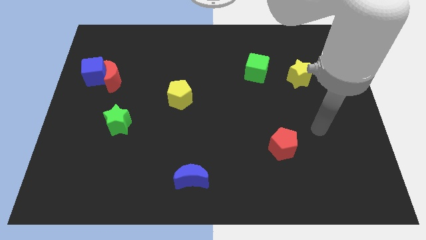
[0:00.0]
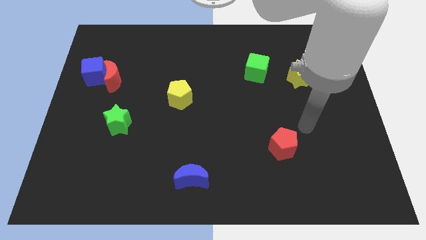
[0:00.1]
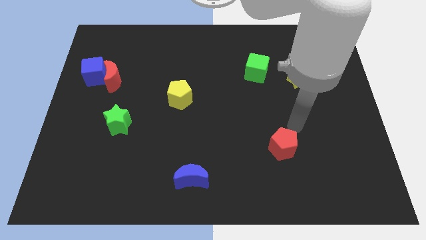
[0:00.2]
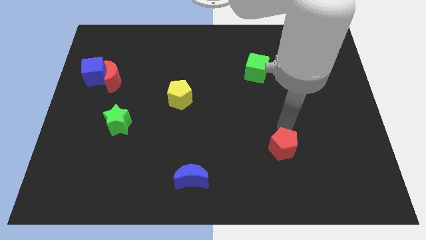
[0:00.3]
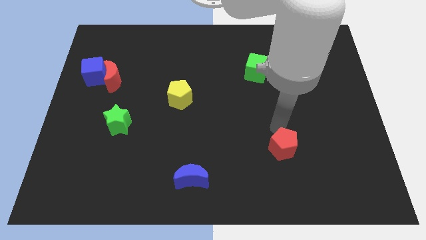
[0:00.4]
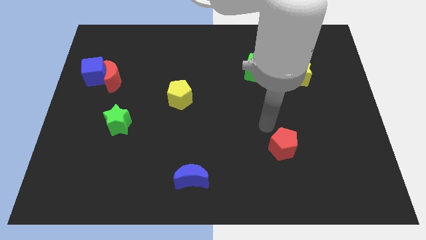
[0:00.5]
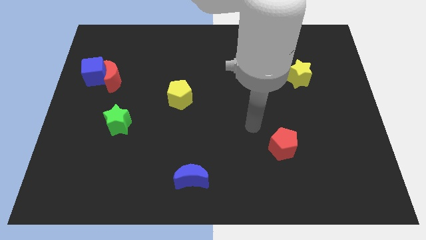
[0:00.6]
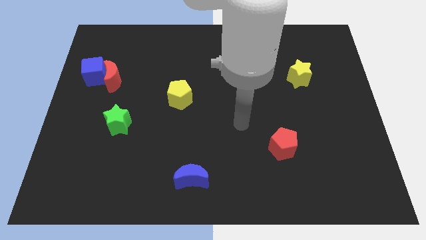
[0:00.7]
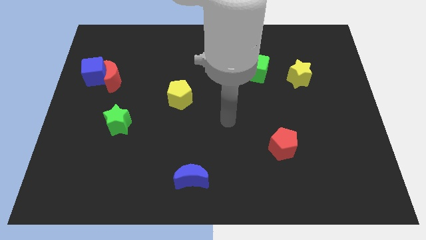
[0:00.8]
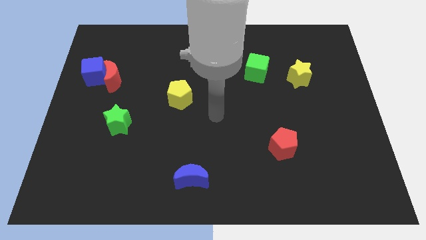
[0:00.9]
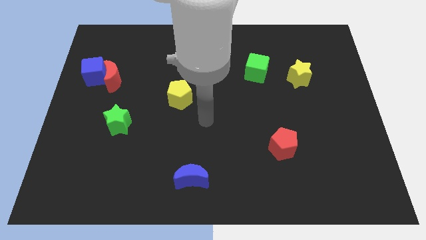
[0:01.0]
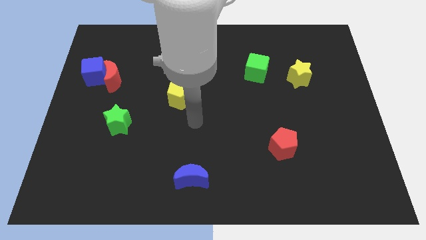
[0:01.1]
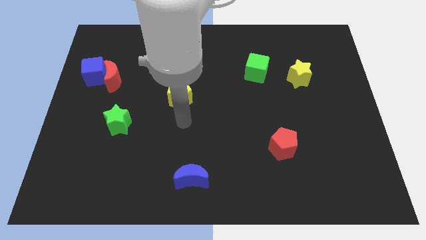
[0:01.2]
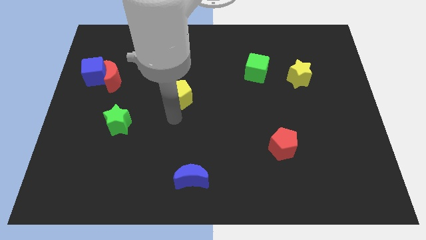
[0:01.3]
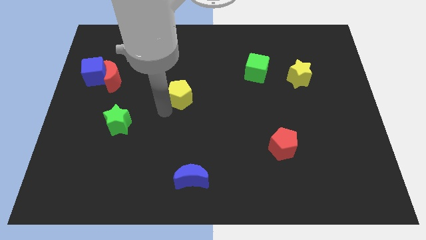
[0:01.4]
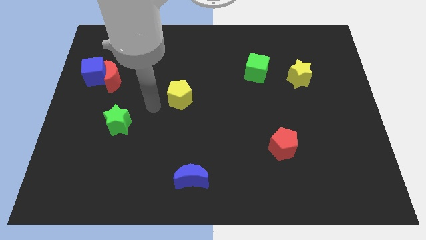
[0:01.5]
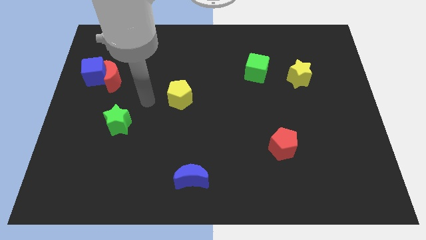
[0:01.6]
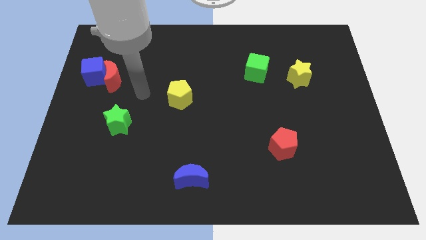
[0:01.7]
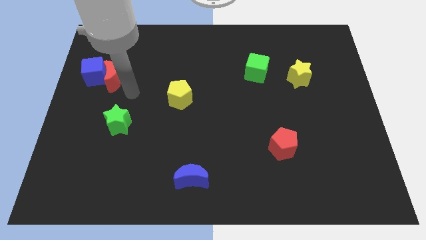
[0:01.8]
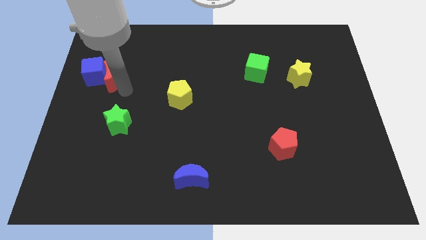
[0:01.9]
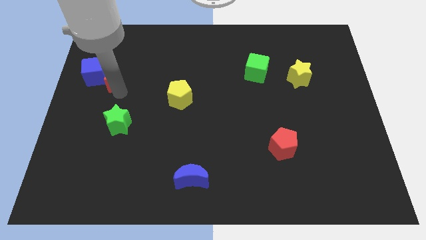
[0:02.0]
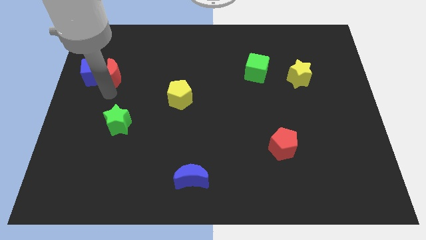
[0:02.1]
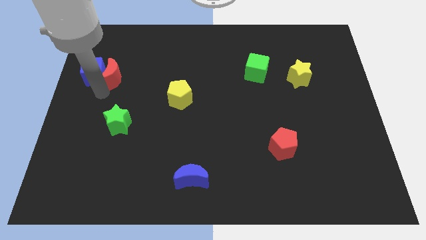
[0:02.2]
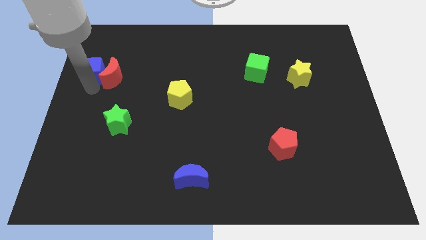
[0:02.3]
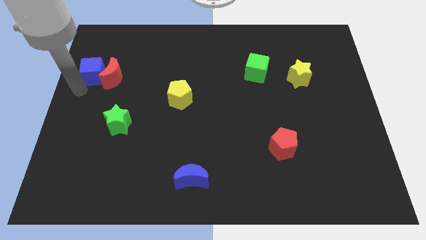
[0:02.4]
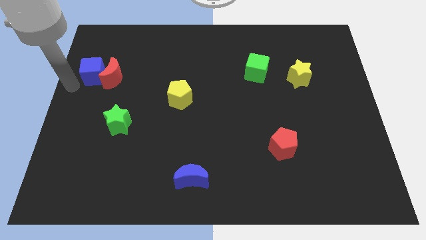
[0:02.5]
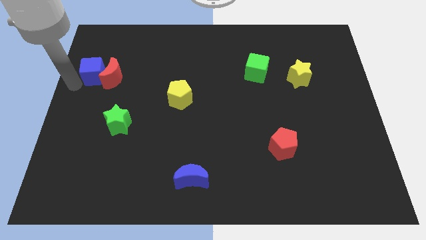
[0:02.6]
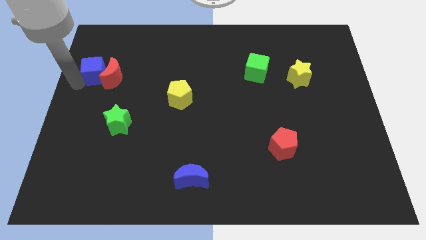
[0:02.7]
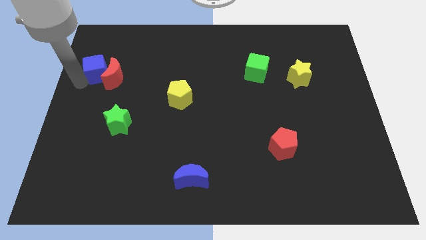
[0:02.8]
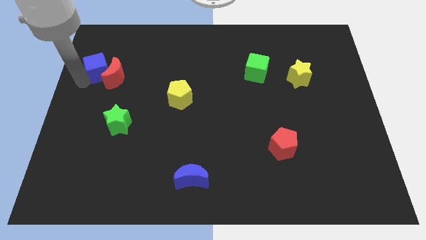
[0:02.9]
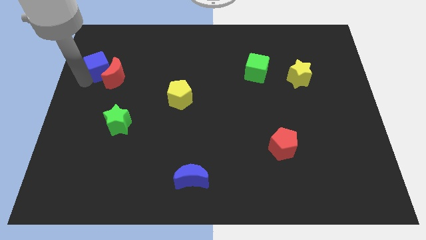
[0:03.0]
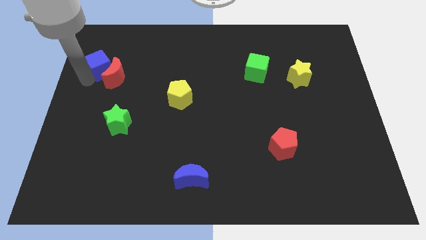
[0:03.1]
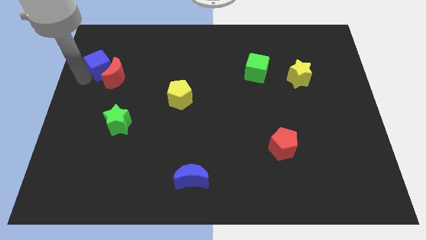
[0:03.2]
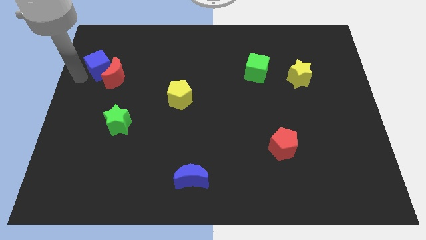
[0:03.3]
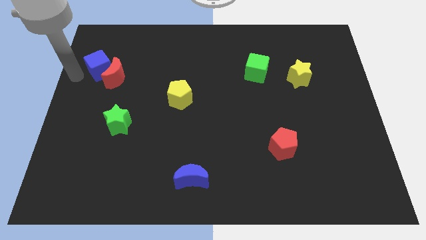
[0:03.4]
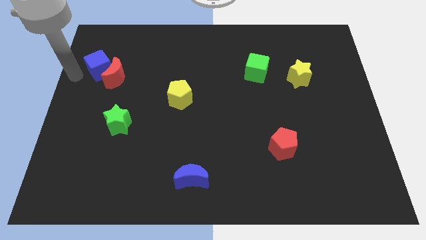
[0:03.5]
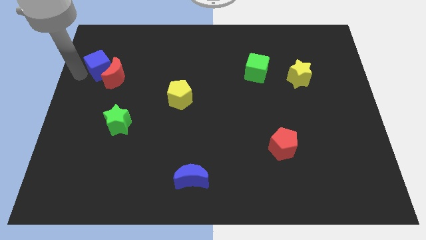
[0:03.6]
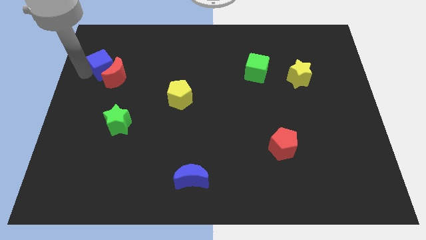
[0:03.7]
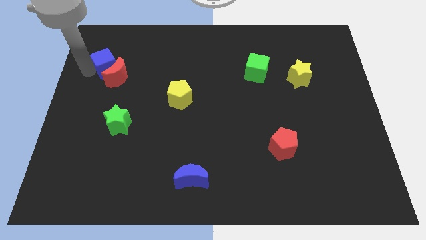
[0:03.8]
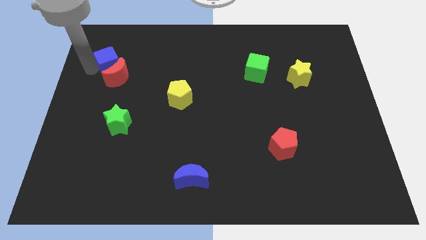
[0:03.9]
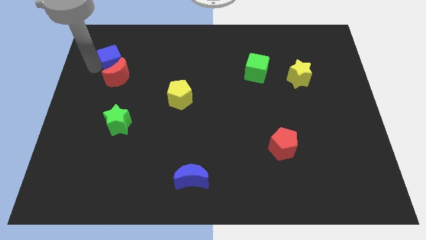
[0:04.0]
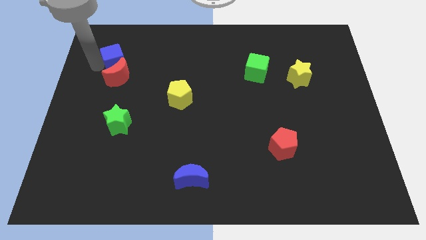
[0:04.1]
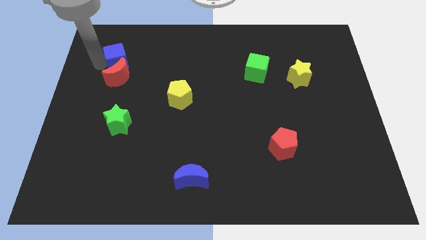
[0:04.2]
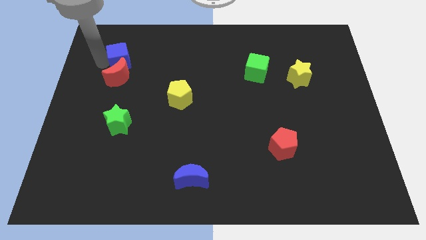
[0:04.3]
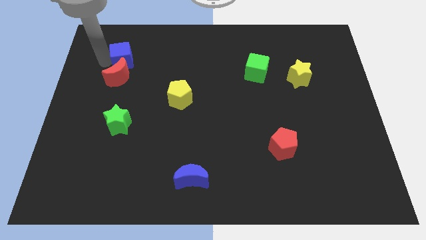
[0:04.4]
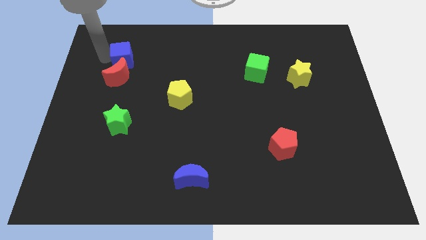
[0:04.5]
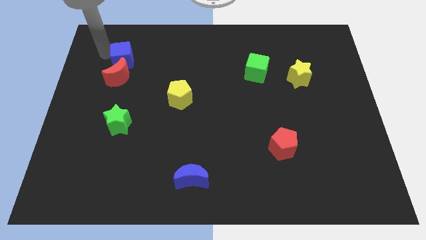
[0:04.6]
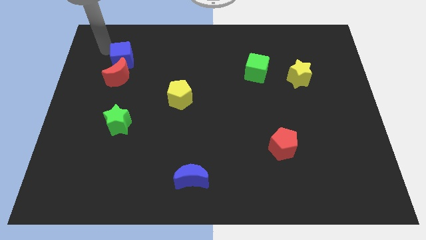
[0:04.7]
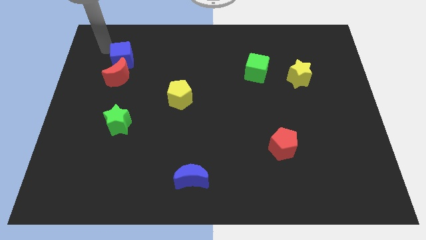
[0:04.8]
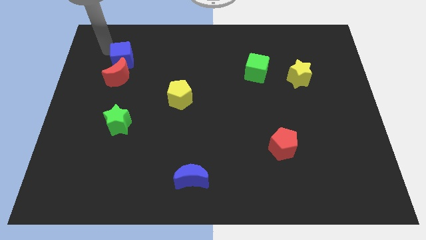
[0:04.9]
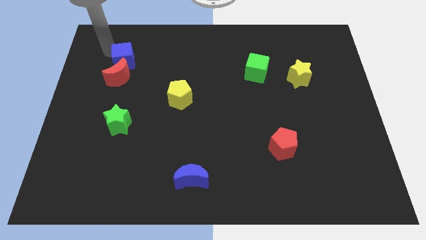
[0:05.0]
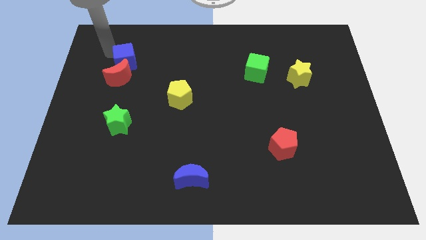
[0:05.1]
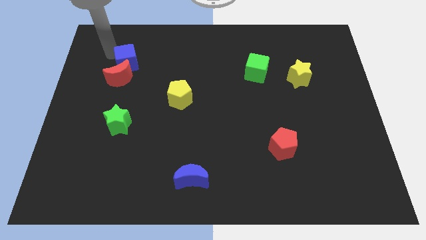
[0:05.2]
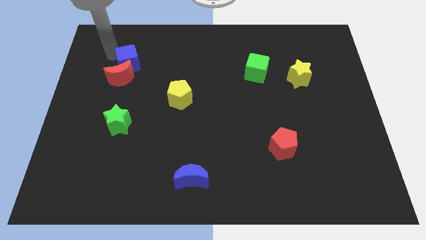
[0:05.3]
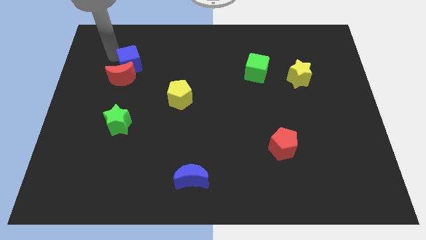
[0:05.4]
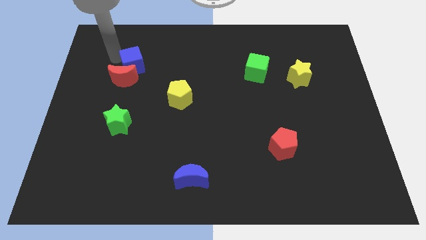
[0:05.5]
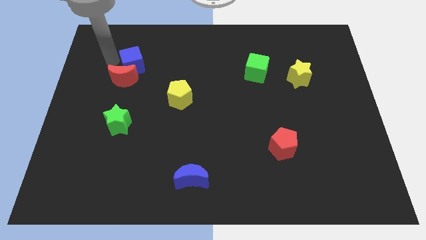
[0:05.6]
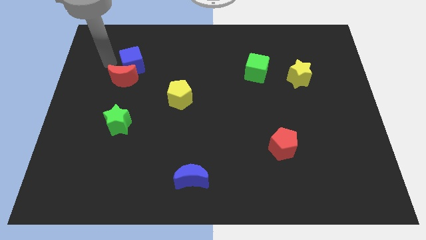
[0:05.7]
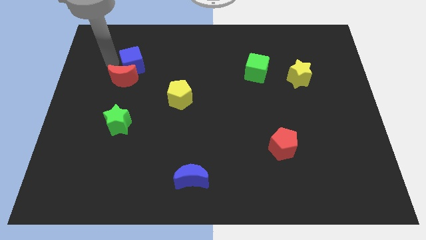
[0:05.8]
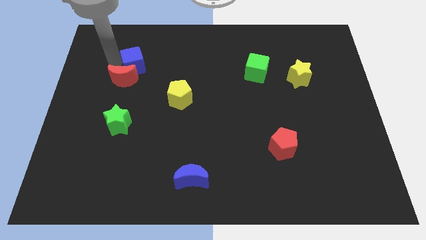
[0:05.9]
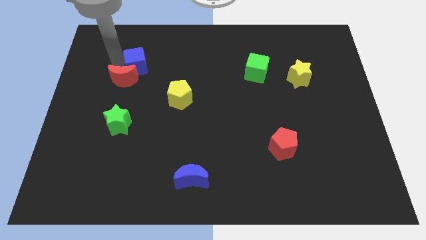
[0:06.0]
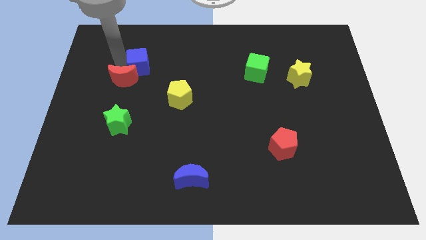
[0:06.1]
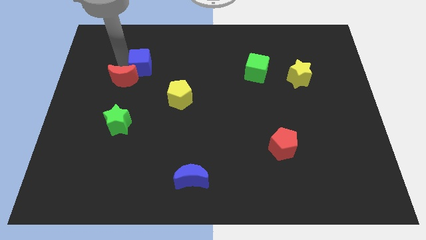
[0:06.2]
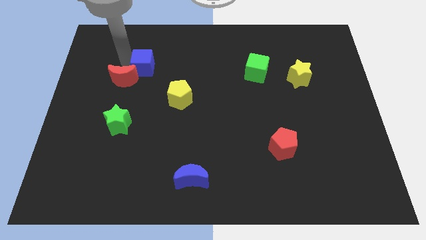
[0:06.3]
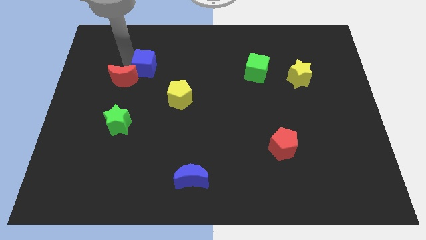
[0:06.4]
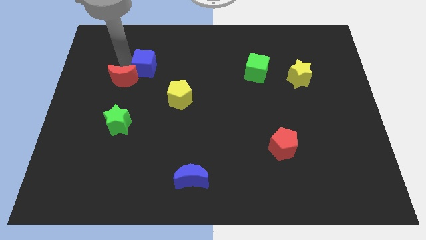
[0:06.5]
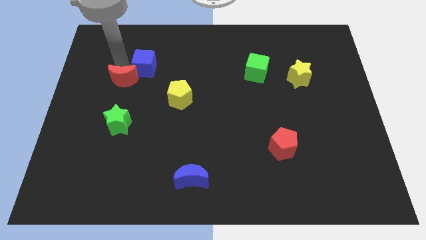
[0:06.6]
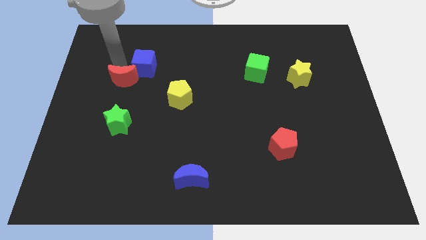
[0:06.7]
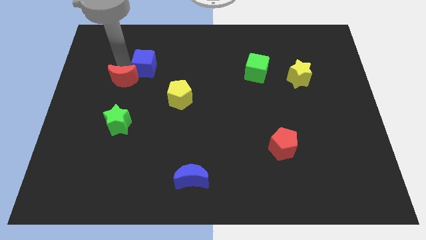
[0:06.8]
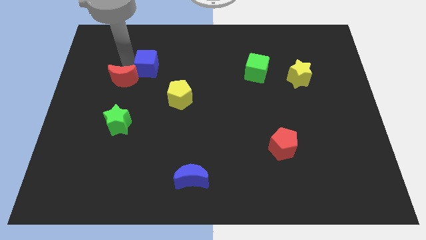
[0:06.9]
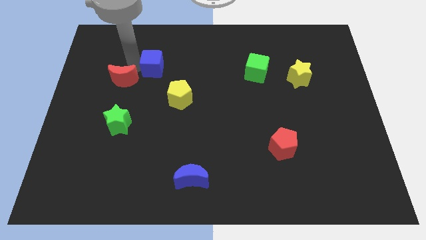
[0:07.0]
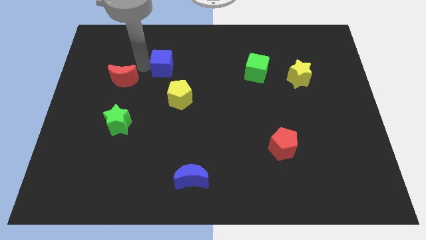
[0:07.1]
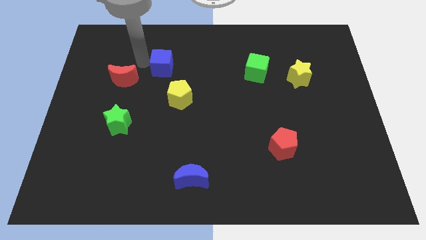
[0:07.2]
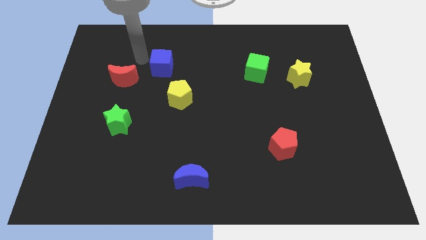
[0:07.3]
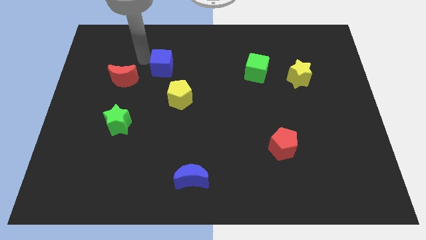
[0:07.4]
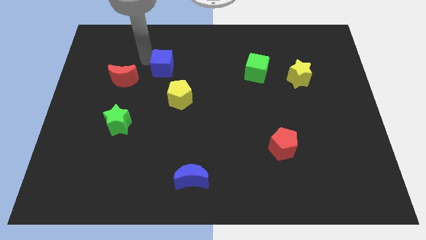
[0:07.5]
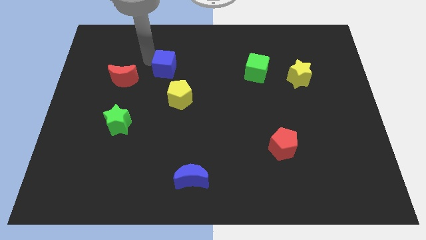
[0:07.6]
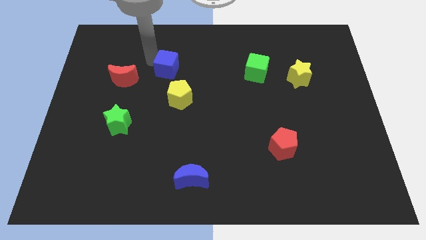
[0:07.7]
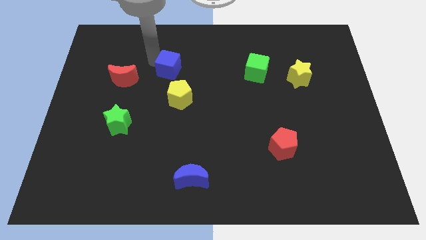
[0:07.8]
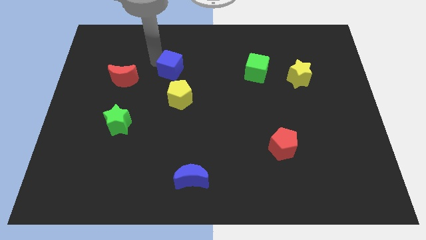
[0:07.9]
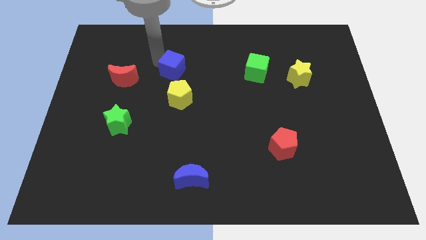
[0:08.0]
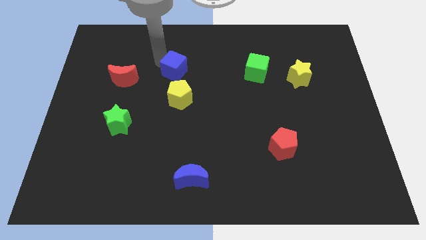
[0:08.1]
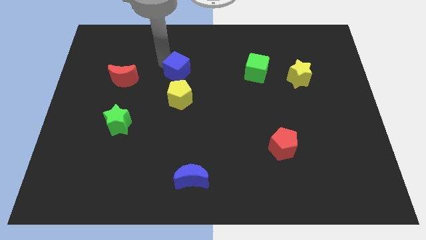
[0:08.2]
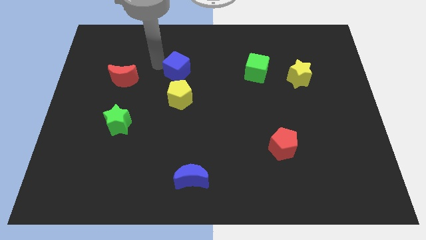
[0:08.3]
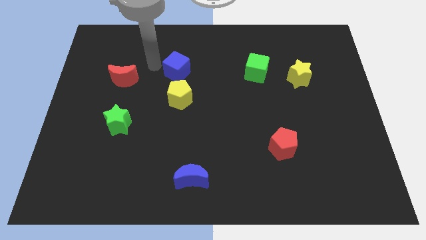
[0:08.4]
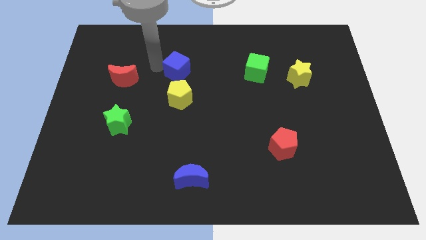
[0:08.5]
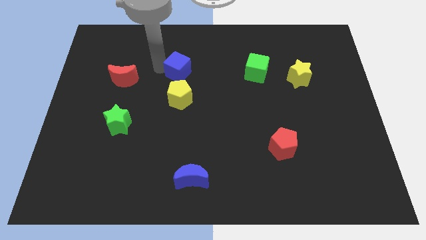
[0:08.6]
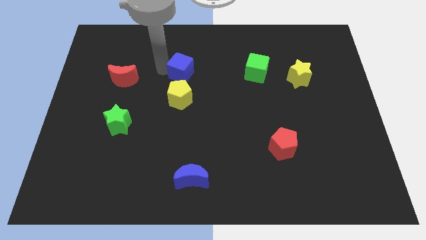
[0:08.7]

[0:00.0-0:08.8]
push the blue cube to the center
